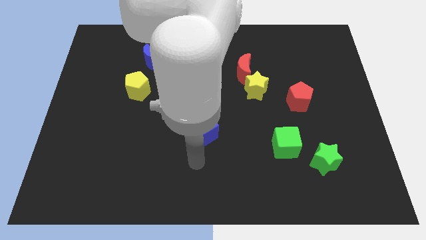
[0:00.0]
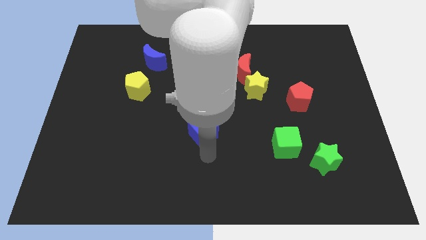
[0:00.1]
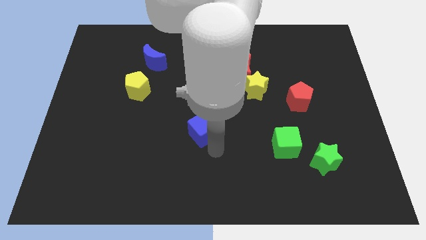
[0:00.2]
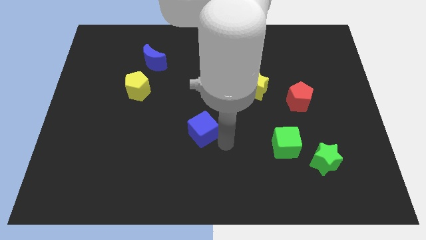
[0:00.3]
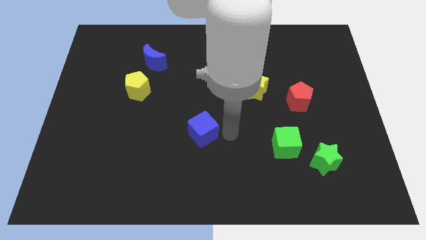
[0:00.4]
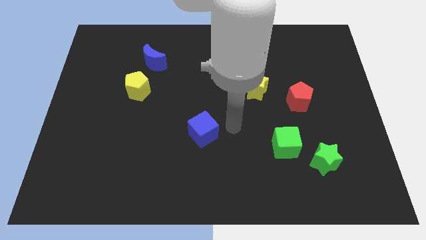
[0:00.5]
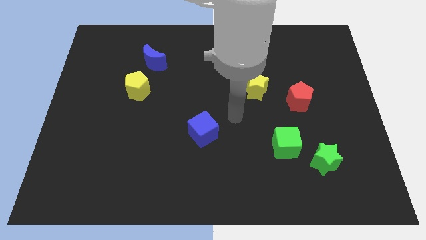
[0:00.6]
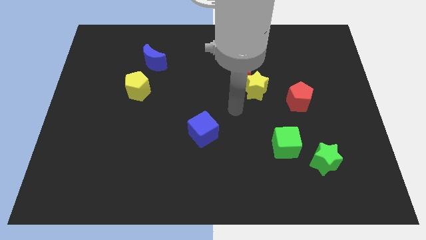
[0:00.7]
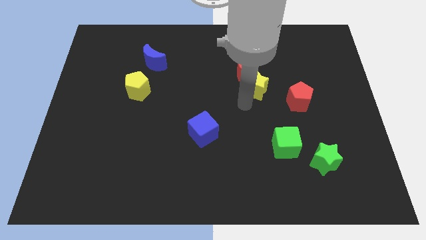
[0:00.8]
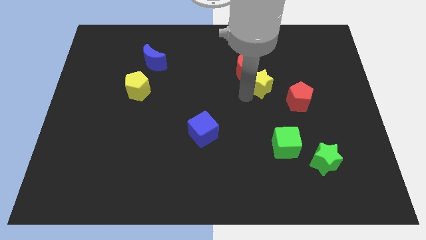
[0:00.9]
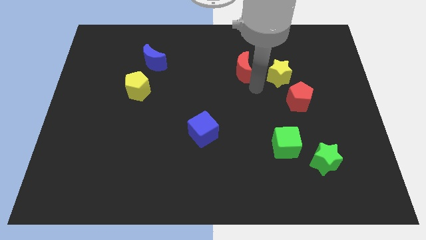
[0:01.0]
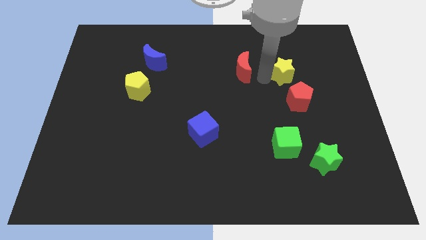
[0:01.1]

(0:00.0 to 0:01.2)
pull the red moon apart from the yellow star

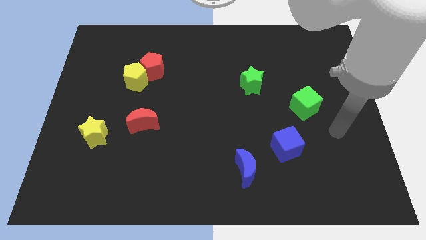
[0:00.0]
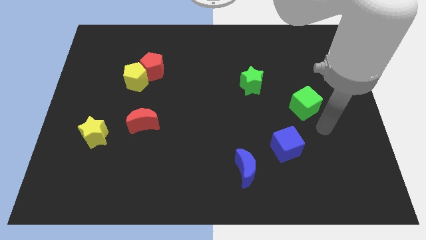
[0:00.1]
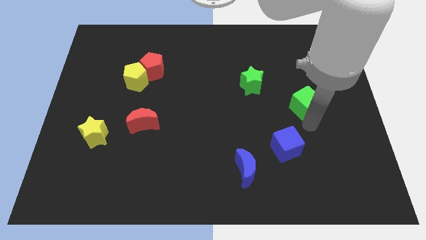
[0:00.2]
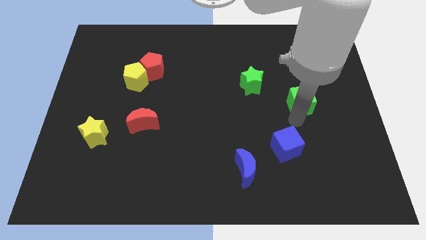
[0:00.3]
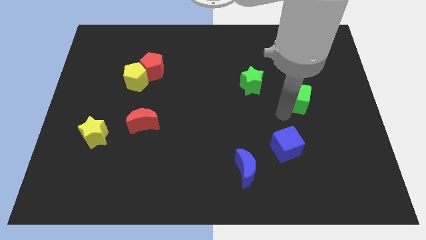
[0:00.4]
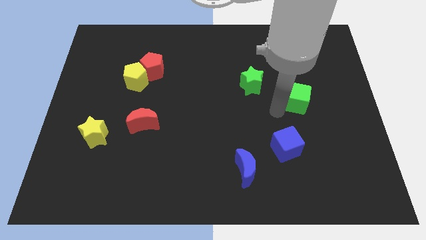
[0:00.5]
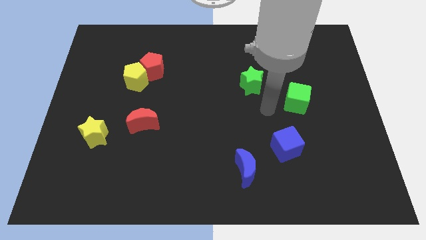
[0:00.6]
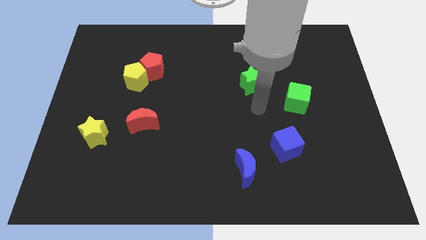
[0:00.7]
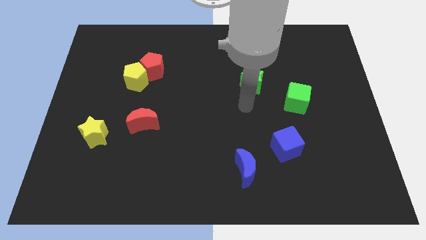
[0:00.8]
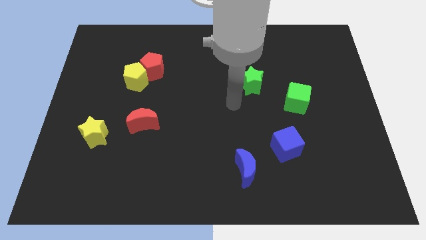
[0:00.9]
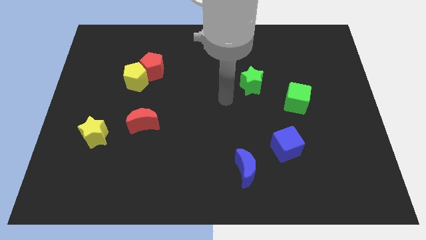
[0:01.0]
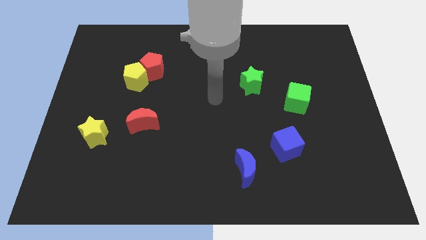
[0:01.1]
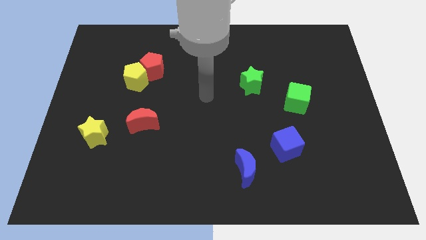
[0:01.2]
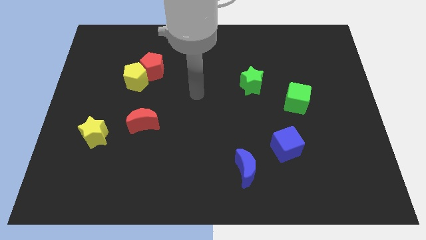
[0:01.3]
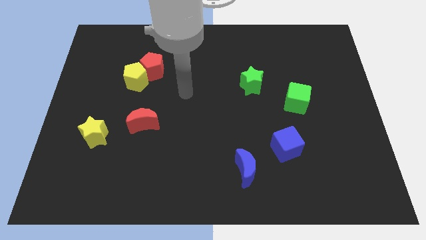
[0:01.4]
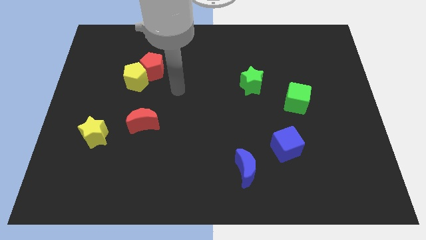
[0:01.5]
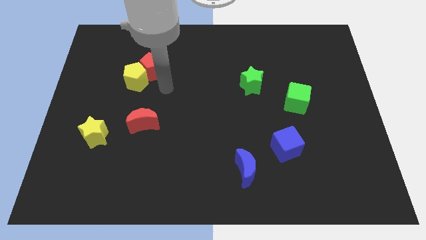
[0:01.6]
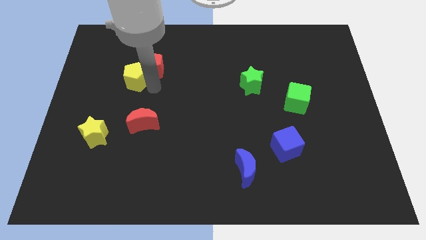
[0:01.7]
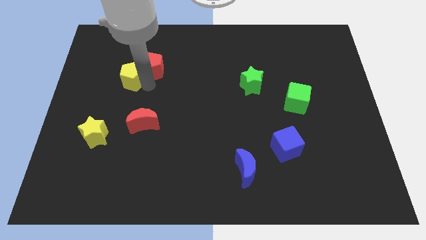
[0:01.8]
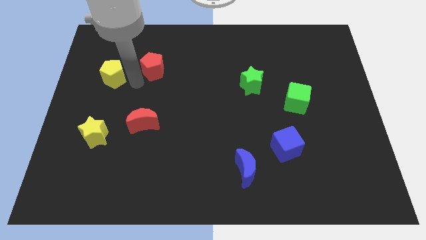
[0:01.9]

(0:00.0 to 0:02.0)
separate the red pentagon from the yellow pentagon

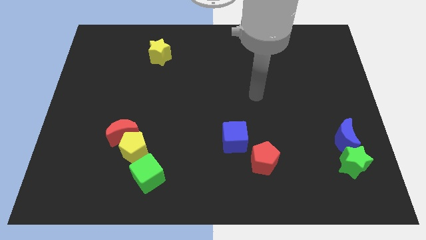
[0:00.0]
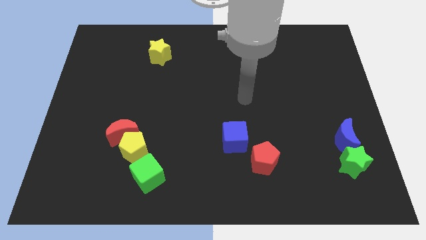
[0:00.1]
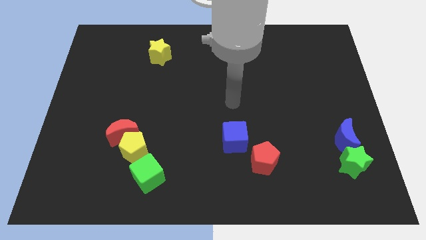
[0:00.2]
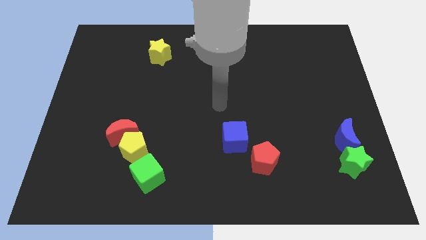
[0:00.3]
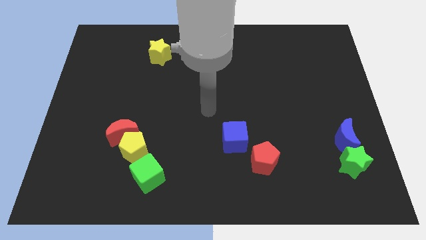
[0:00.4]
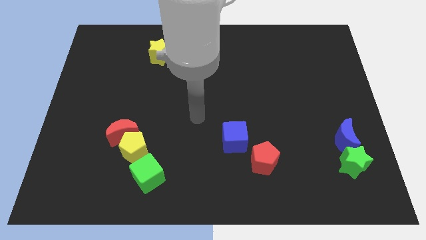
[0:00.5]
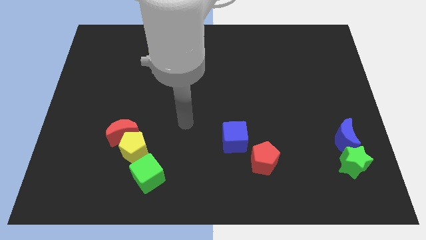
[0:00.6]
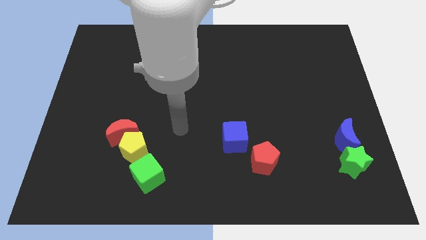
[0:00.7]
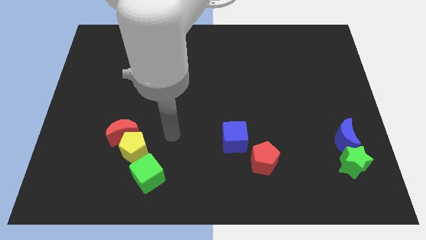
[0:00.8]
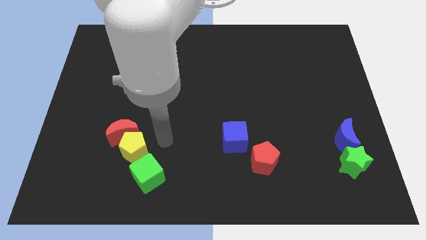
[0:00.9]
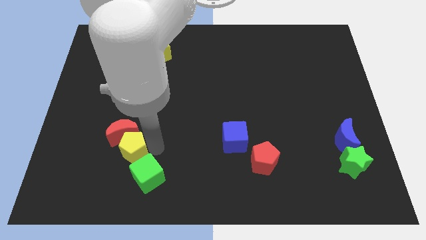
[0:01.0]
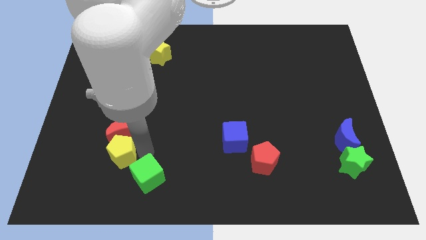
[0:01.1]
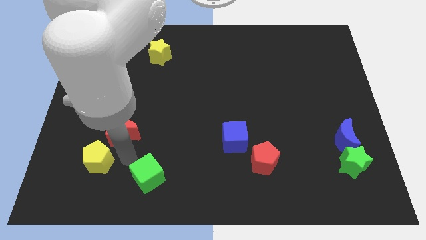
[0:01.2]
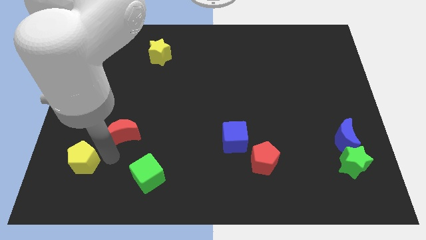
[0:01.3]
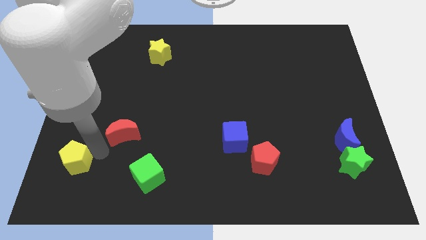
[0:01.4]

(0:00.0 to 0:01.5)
separate the red moon from the yellow pentagon

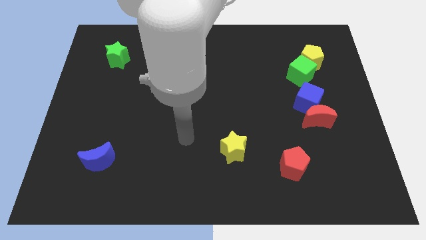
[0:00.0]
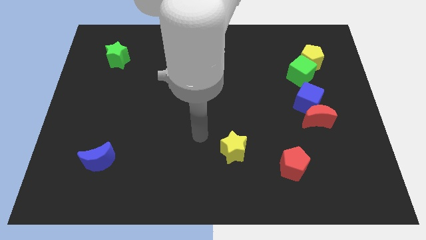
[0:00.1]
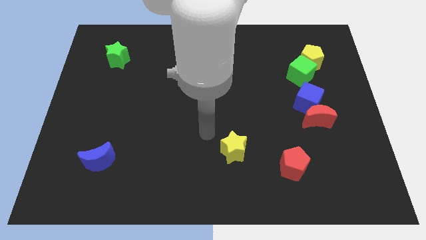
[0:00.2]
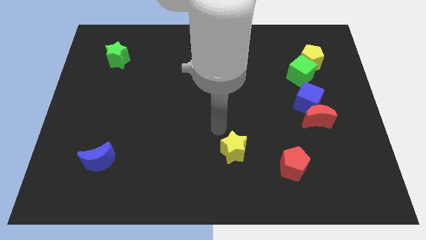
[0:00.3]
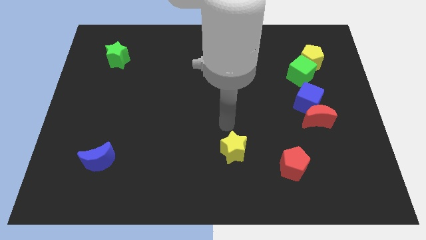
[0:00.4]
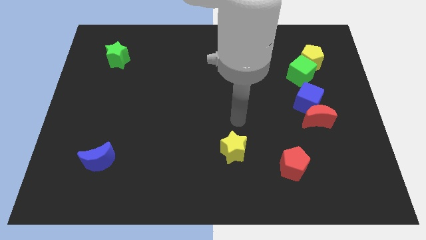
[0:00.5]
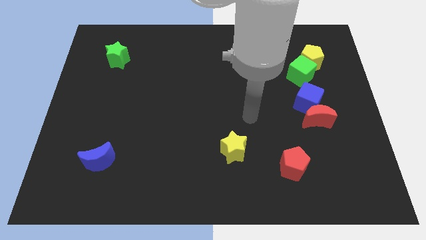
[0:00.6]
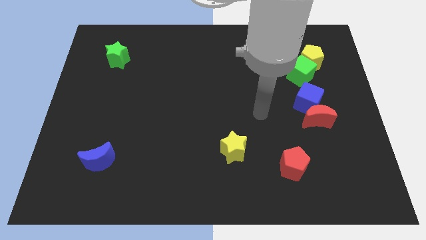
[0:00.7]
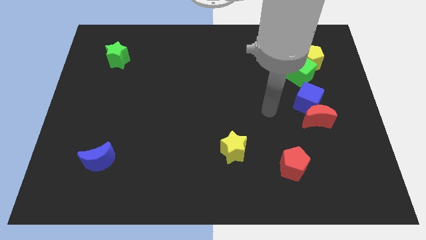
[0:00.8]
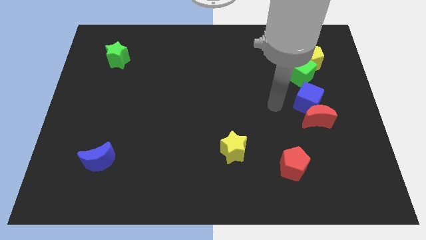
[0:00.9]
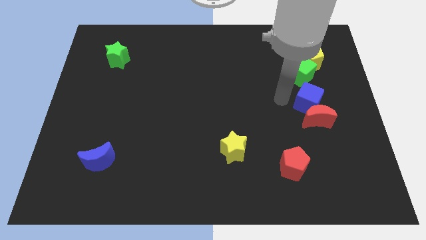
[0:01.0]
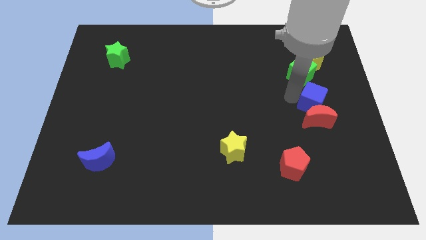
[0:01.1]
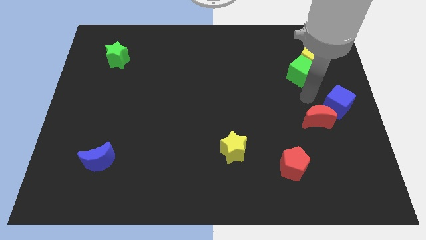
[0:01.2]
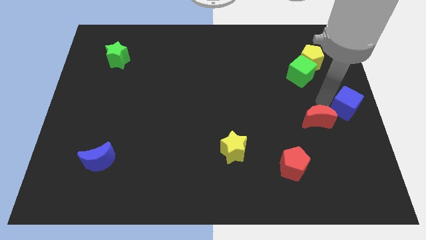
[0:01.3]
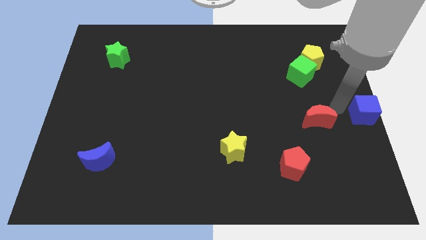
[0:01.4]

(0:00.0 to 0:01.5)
move the red moon away from the blue cube

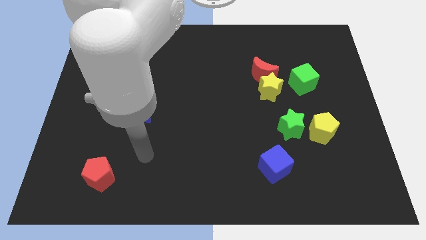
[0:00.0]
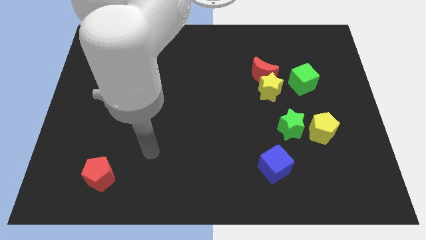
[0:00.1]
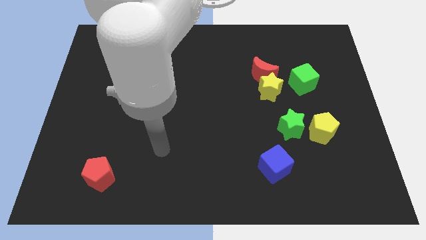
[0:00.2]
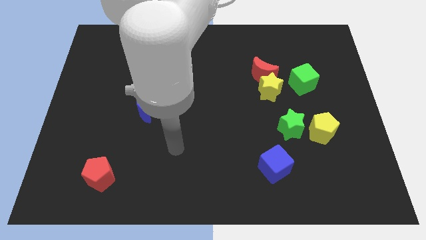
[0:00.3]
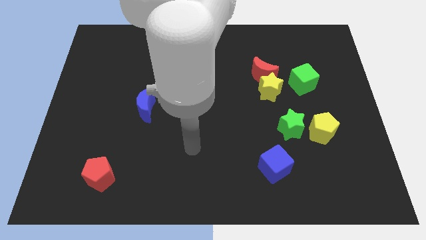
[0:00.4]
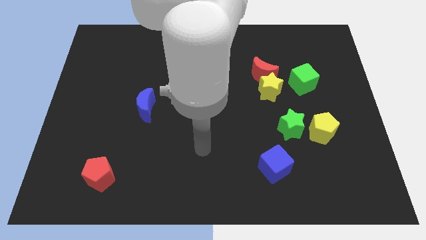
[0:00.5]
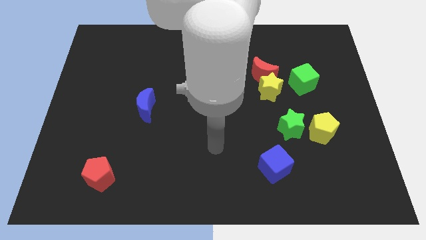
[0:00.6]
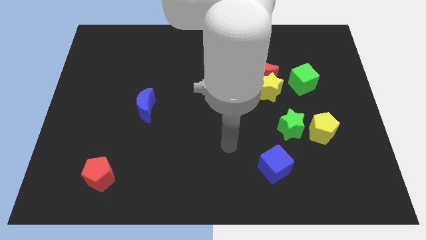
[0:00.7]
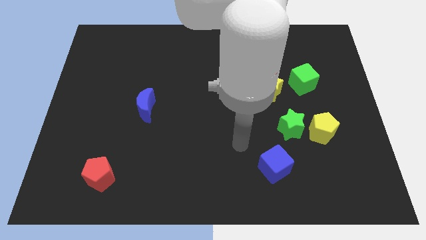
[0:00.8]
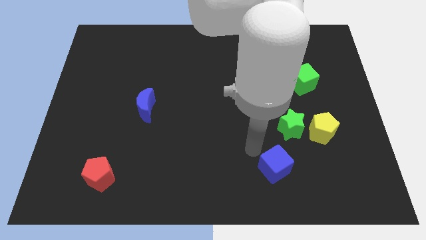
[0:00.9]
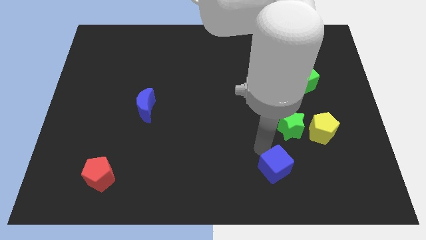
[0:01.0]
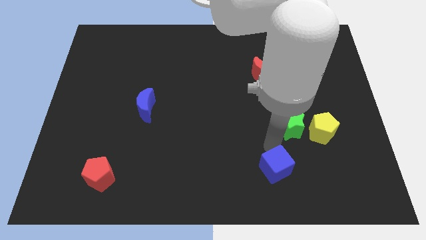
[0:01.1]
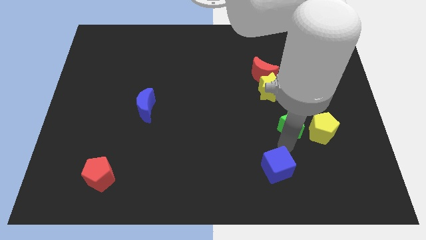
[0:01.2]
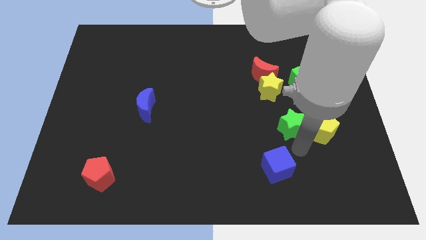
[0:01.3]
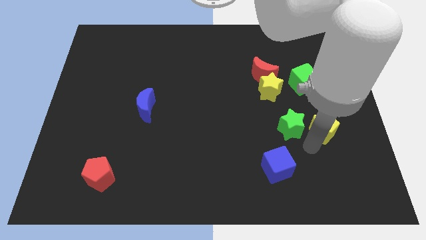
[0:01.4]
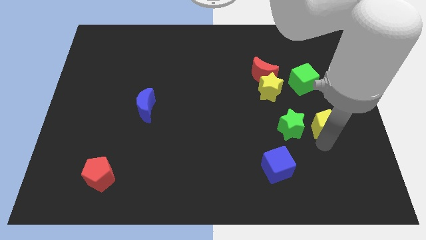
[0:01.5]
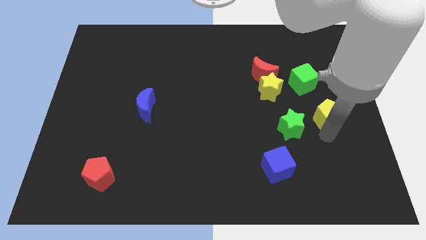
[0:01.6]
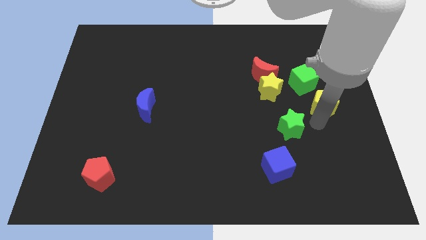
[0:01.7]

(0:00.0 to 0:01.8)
move the green star away from the yellow pentagon

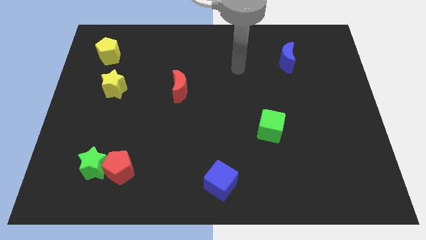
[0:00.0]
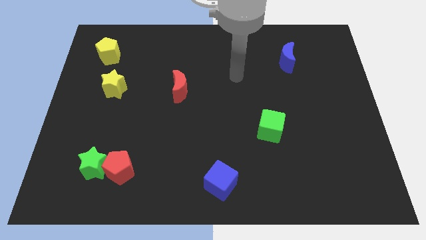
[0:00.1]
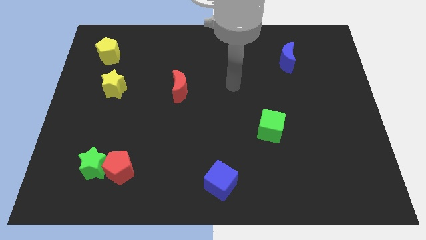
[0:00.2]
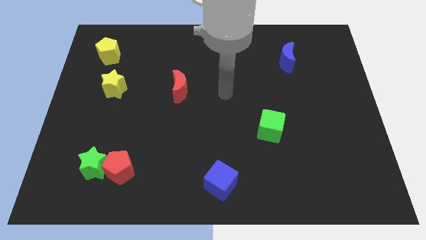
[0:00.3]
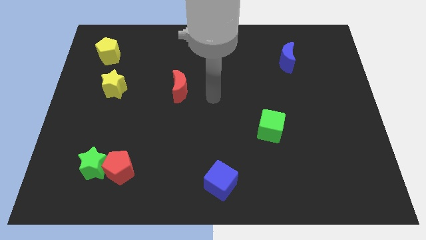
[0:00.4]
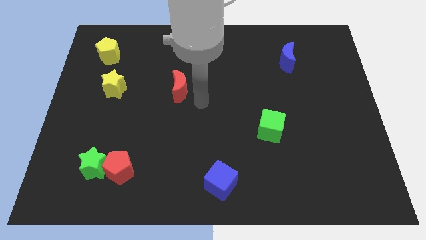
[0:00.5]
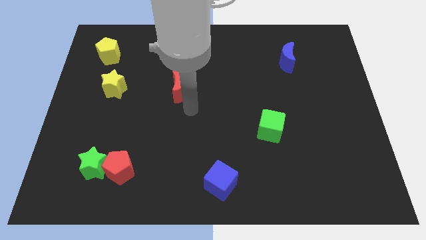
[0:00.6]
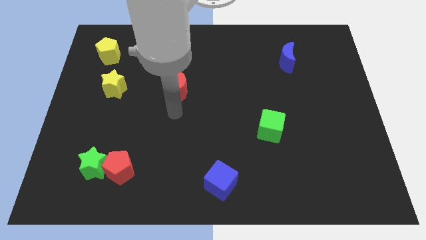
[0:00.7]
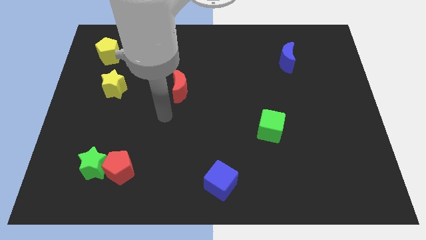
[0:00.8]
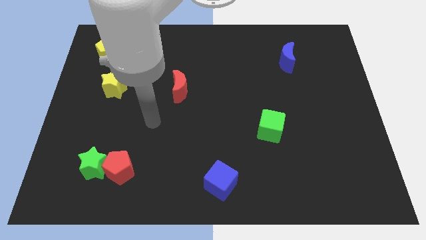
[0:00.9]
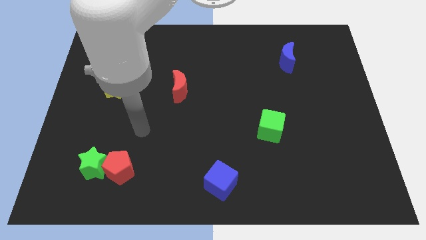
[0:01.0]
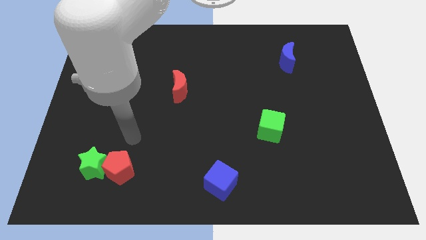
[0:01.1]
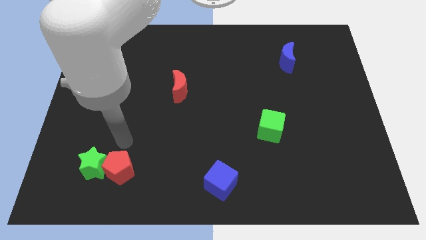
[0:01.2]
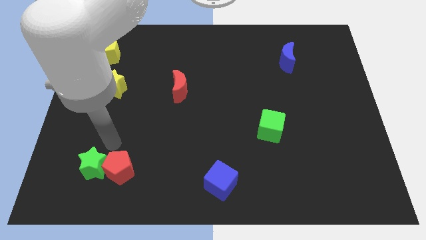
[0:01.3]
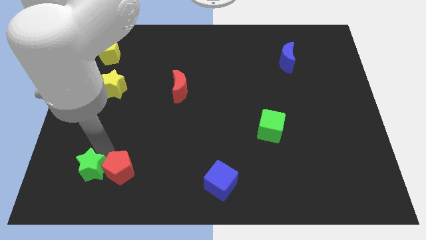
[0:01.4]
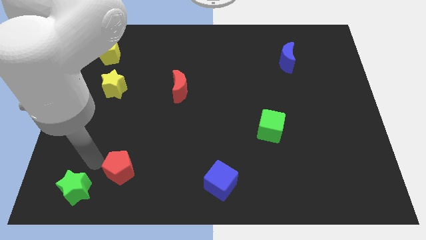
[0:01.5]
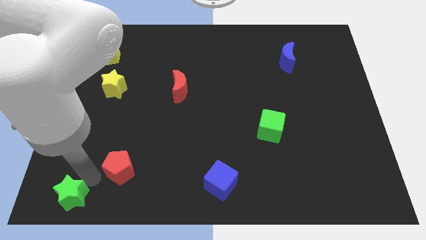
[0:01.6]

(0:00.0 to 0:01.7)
move the red pentagon away from the green star
